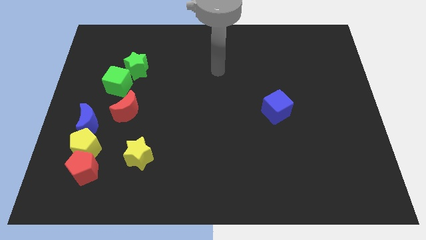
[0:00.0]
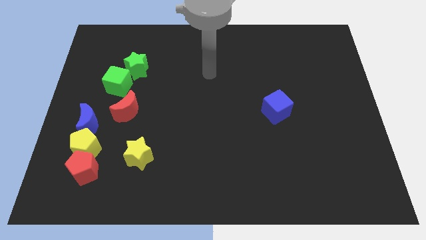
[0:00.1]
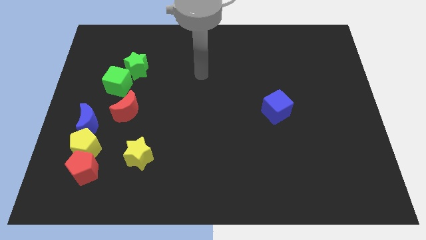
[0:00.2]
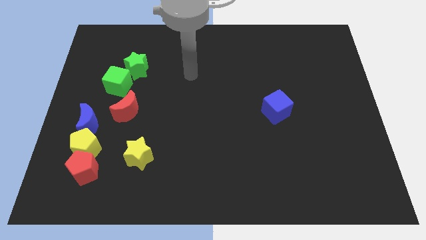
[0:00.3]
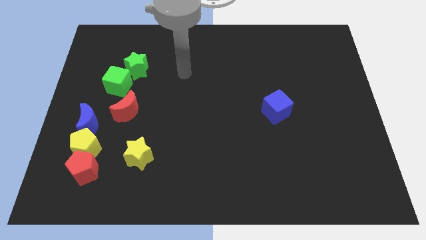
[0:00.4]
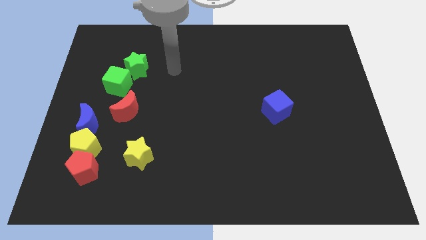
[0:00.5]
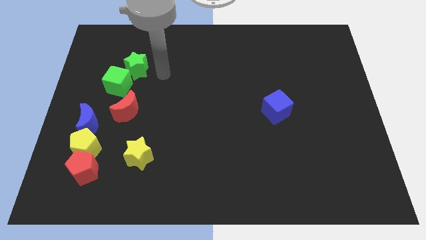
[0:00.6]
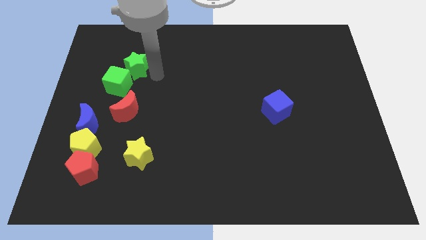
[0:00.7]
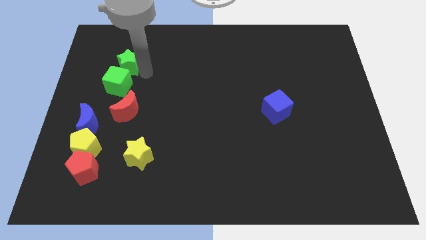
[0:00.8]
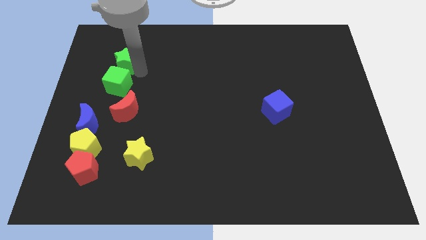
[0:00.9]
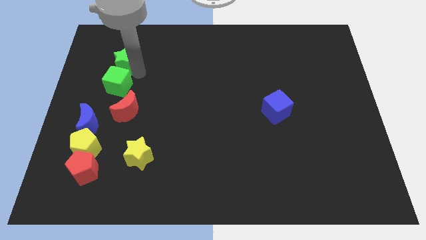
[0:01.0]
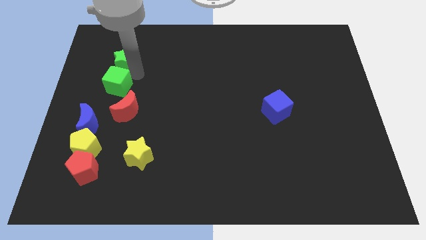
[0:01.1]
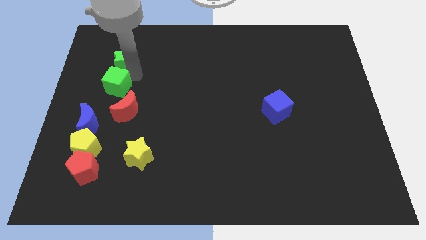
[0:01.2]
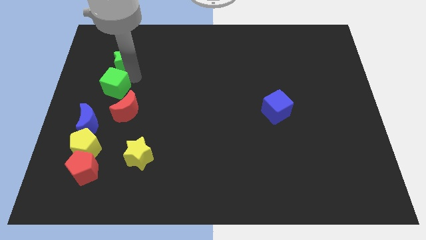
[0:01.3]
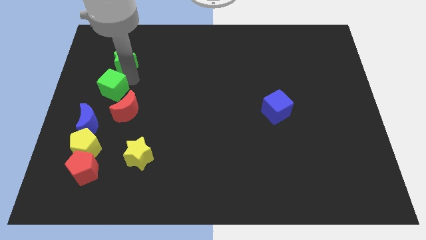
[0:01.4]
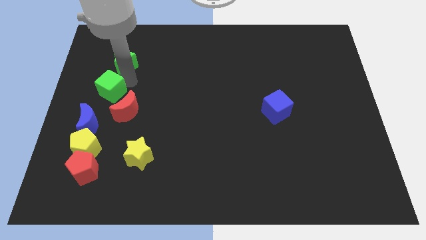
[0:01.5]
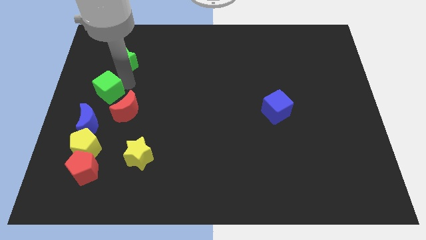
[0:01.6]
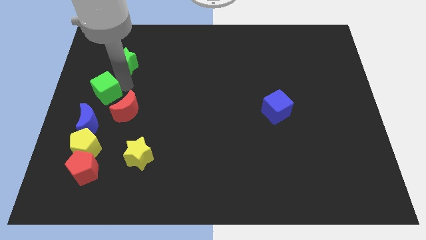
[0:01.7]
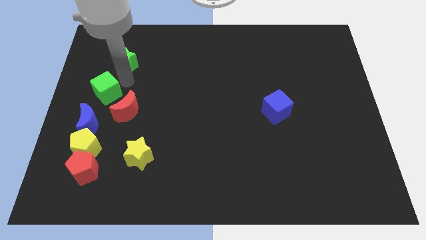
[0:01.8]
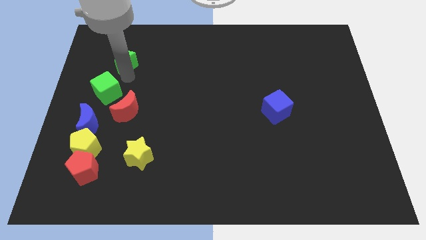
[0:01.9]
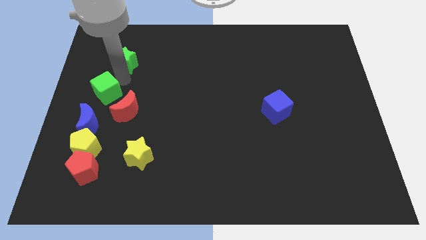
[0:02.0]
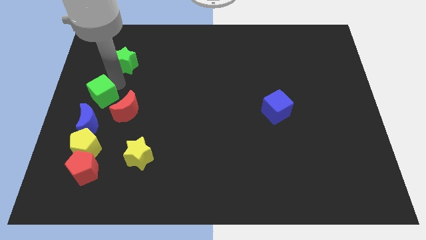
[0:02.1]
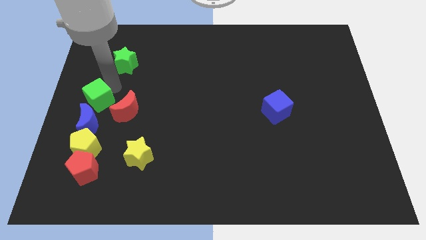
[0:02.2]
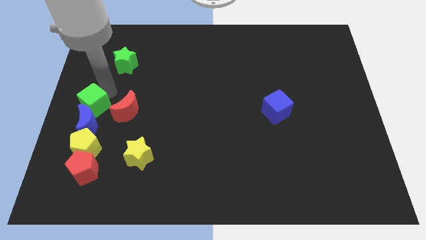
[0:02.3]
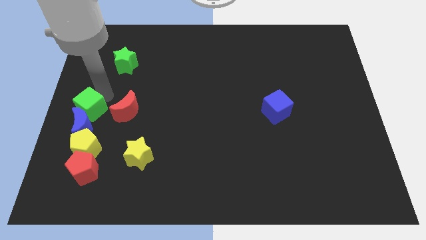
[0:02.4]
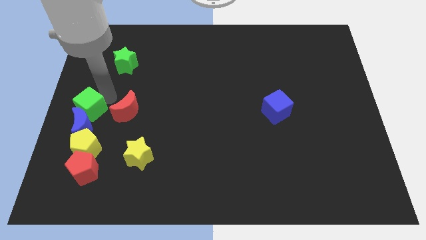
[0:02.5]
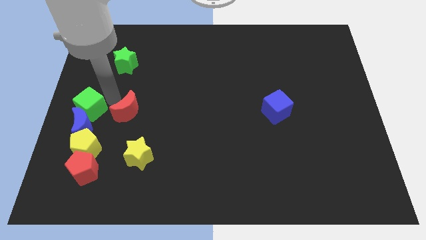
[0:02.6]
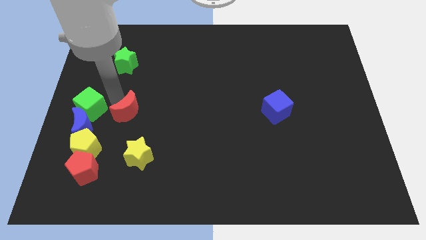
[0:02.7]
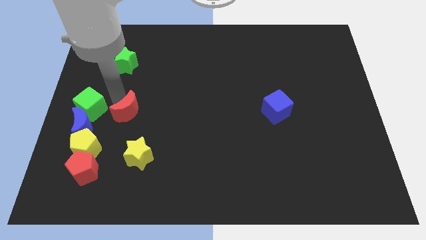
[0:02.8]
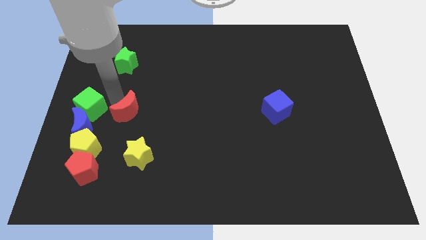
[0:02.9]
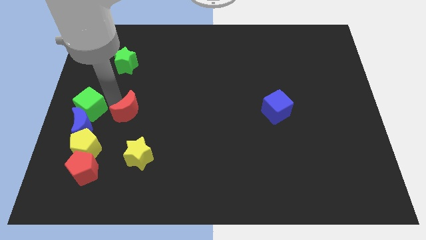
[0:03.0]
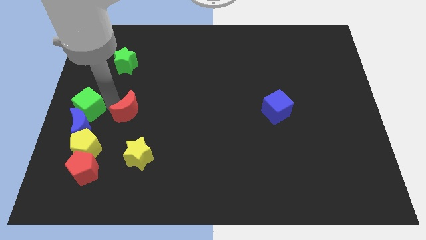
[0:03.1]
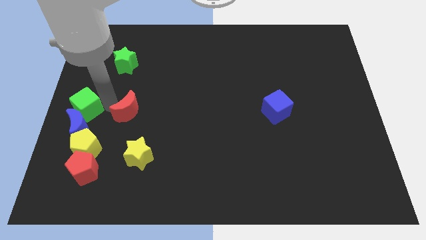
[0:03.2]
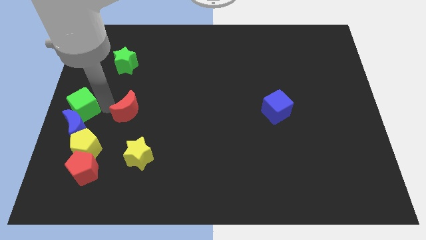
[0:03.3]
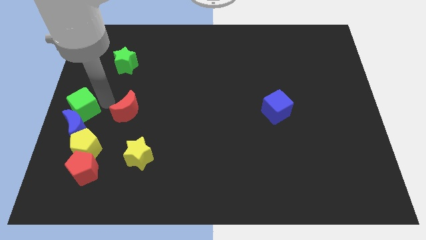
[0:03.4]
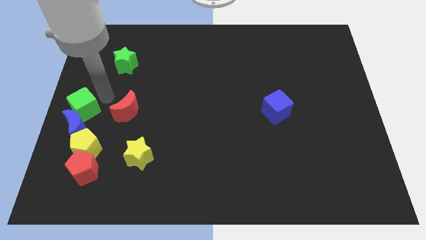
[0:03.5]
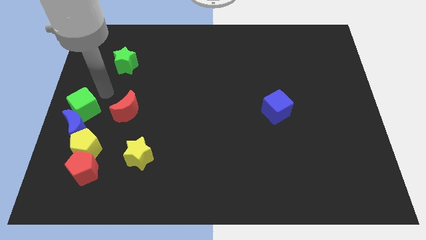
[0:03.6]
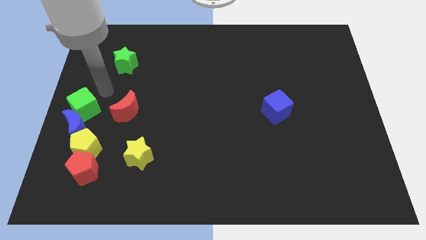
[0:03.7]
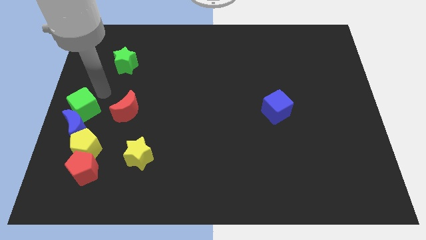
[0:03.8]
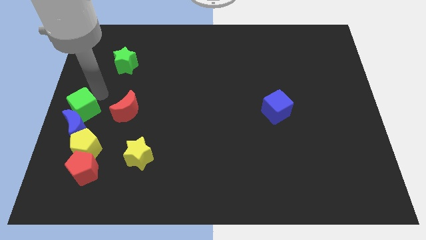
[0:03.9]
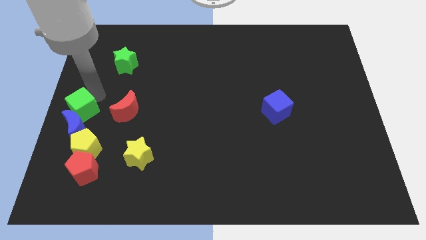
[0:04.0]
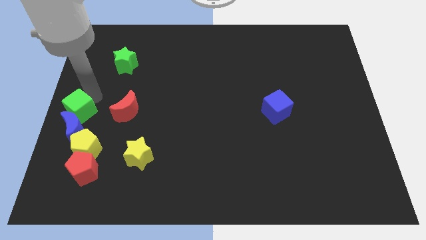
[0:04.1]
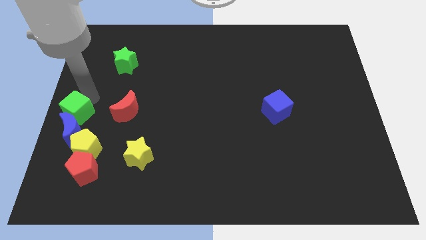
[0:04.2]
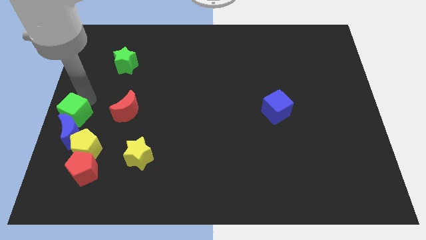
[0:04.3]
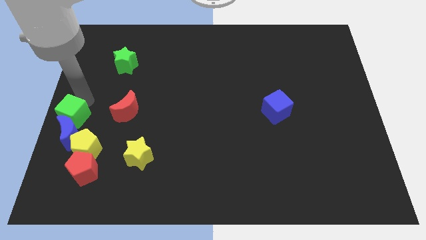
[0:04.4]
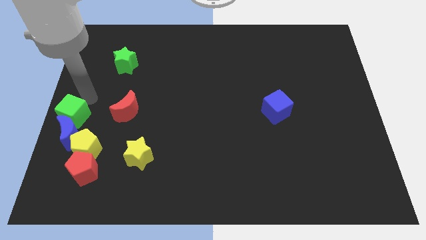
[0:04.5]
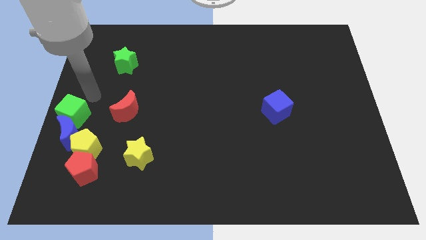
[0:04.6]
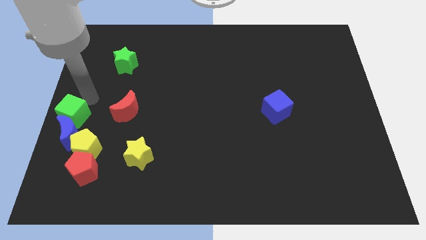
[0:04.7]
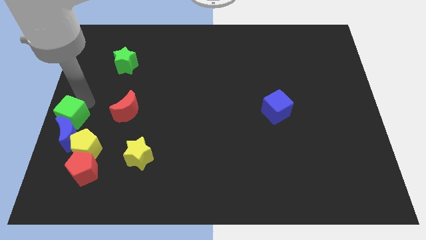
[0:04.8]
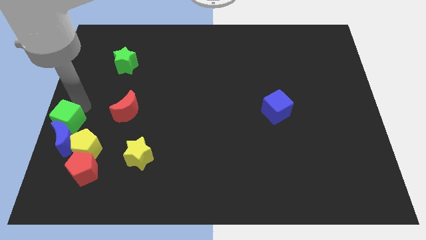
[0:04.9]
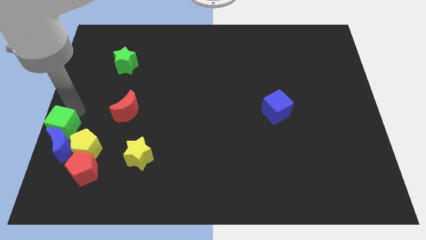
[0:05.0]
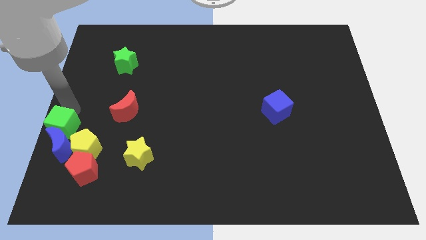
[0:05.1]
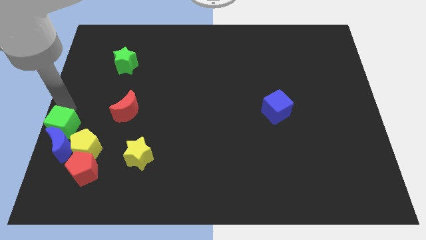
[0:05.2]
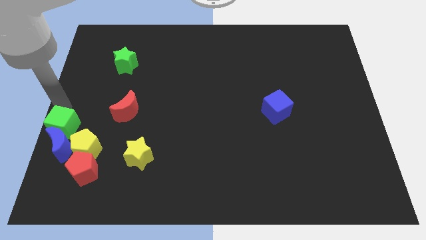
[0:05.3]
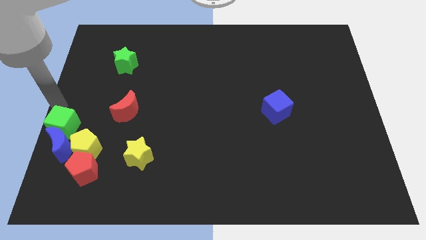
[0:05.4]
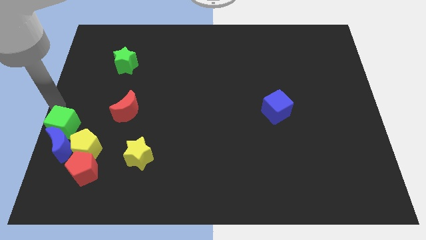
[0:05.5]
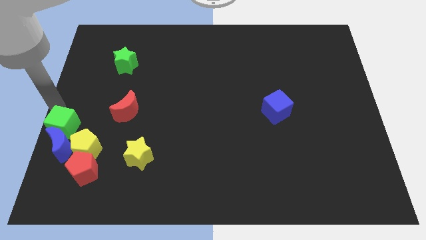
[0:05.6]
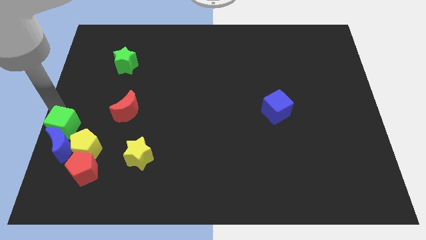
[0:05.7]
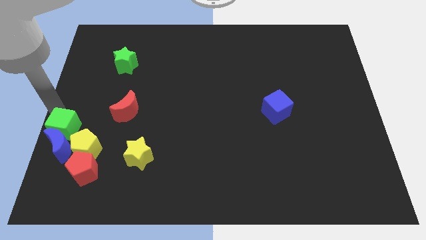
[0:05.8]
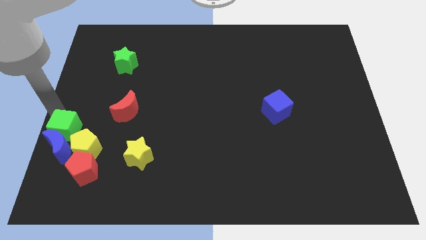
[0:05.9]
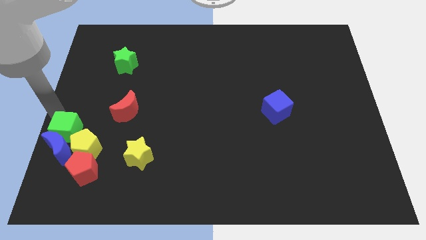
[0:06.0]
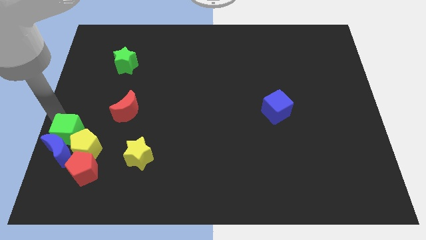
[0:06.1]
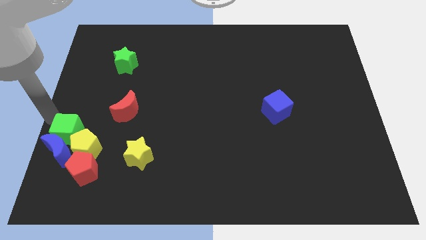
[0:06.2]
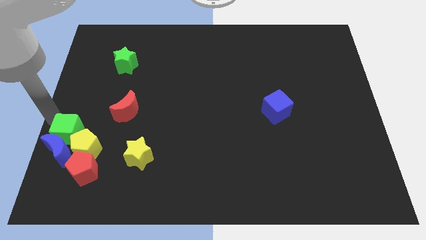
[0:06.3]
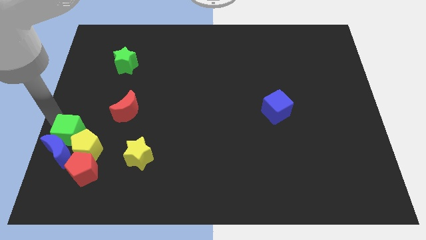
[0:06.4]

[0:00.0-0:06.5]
move the green cube close to the yellow pentagon

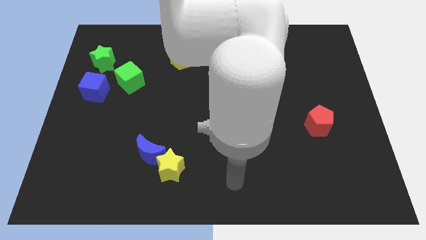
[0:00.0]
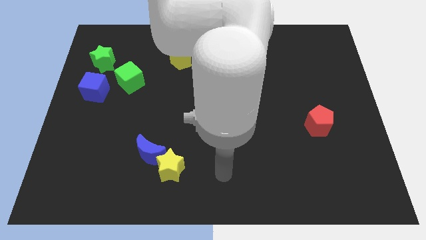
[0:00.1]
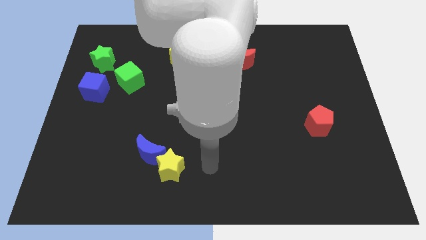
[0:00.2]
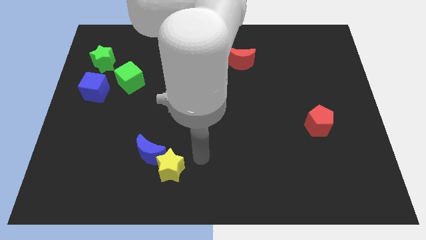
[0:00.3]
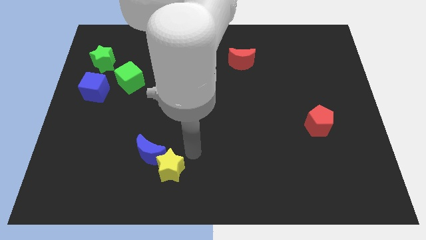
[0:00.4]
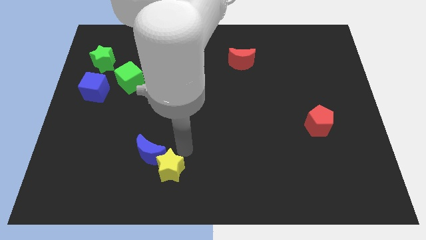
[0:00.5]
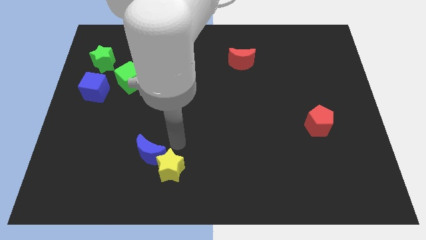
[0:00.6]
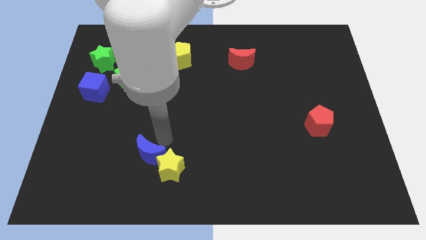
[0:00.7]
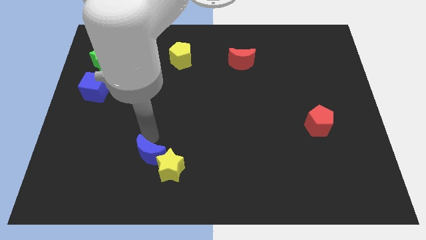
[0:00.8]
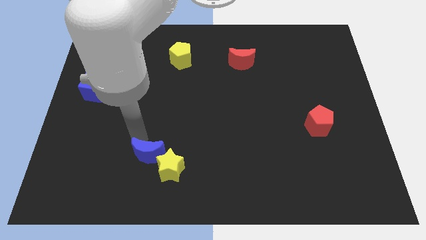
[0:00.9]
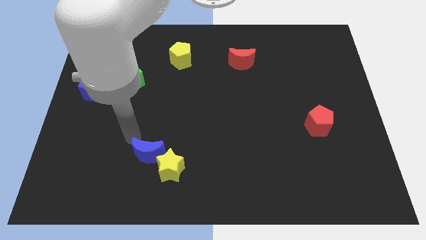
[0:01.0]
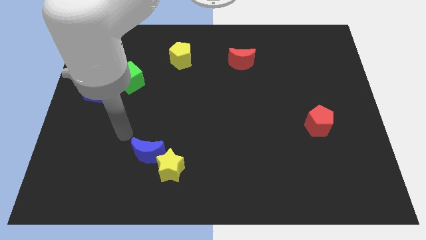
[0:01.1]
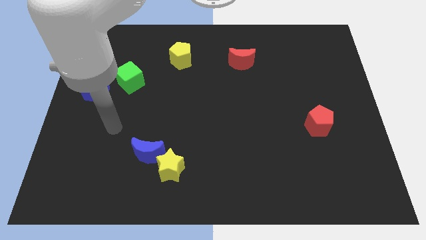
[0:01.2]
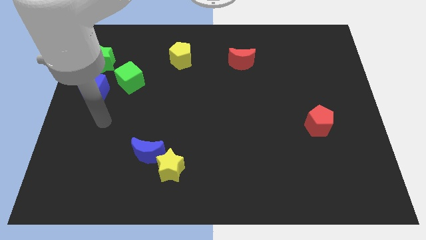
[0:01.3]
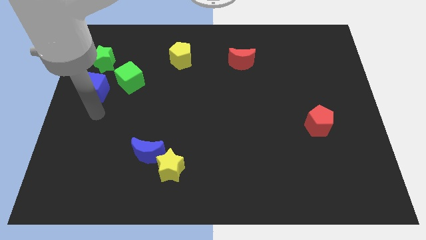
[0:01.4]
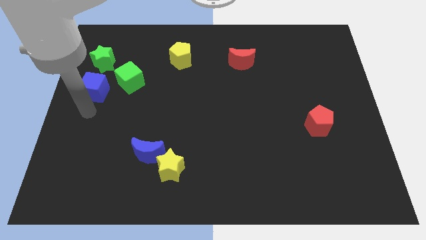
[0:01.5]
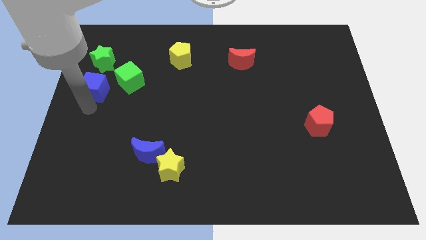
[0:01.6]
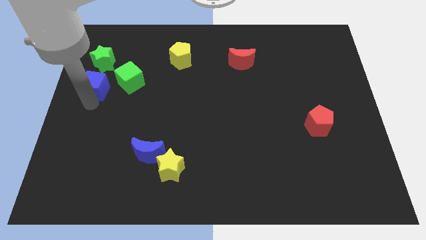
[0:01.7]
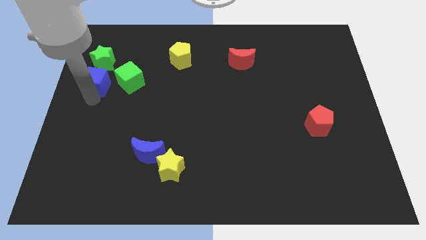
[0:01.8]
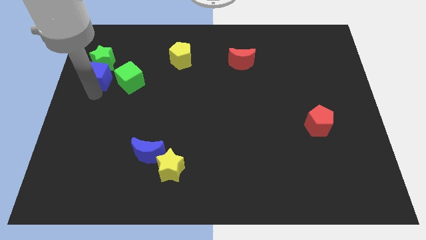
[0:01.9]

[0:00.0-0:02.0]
move the blue cube next to the green star
